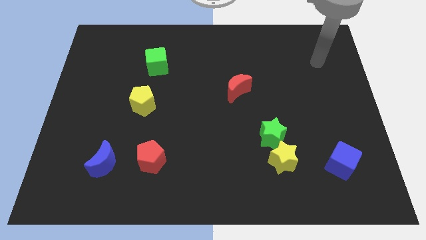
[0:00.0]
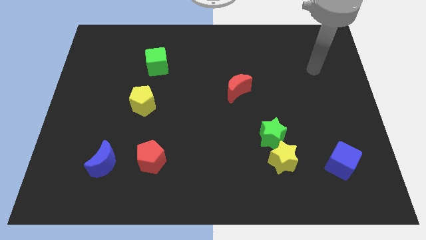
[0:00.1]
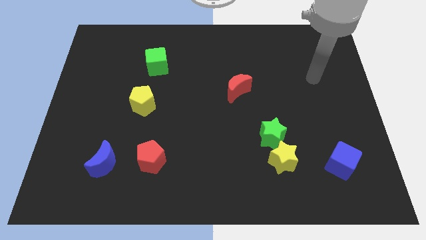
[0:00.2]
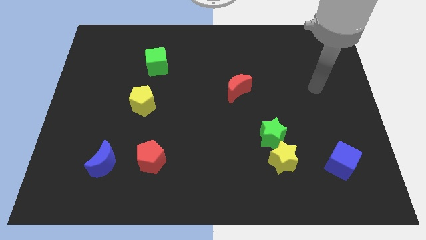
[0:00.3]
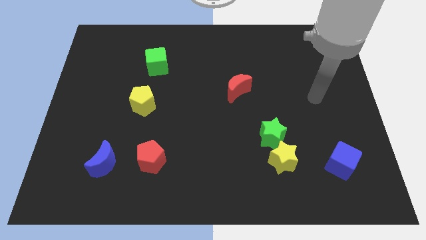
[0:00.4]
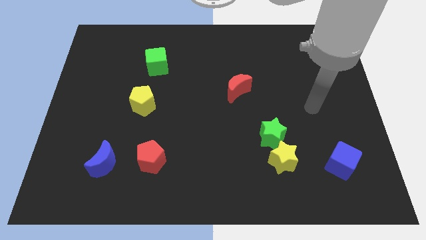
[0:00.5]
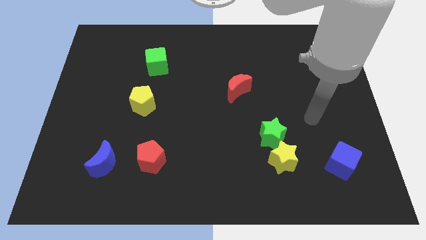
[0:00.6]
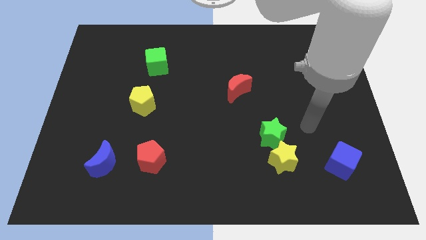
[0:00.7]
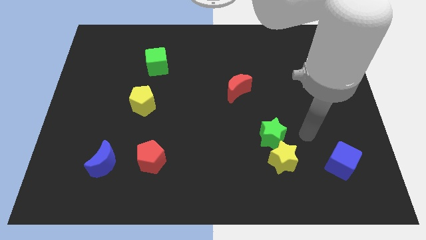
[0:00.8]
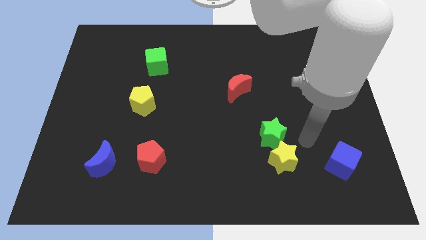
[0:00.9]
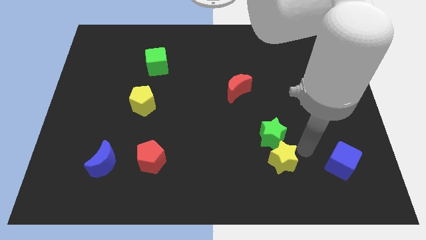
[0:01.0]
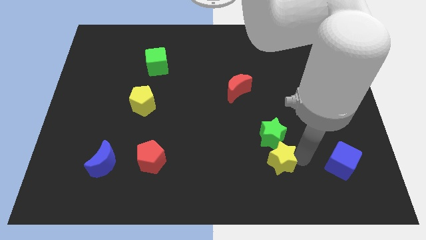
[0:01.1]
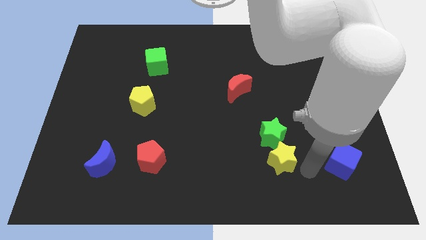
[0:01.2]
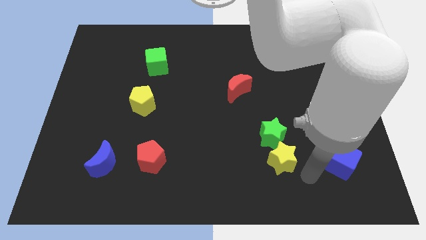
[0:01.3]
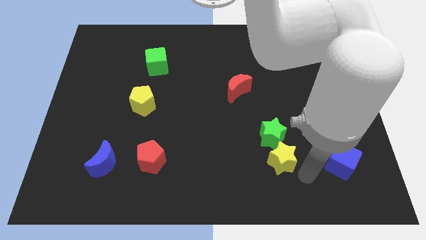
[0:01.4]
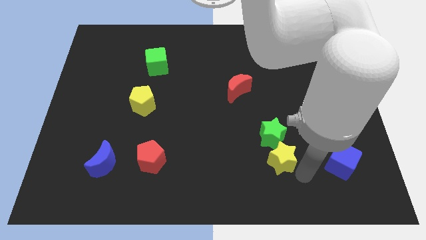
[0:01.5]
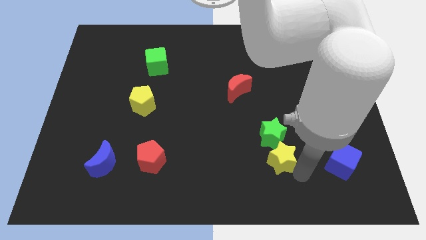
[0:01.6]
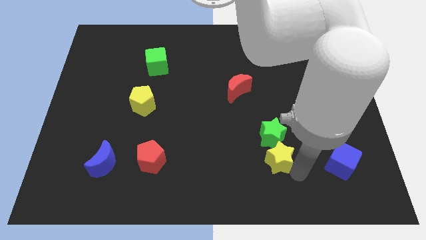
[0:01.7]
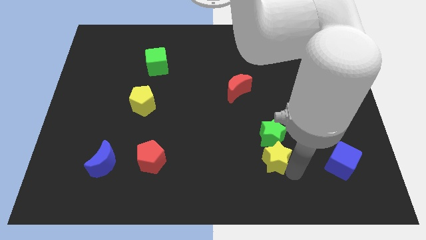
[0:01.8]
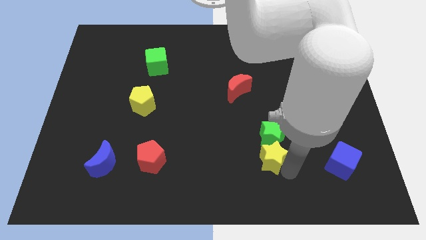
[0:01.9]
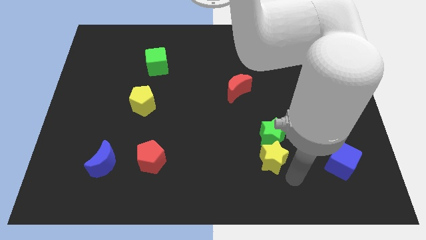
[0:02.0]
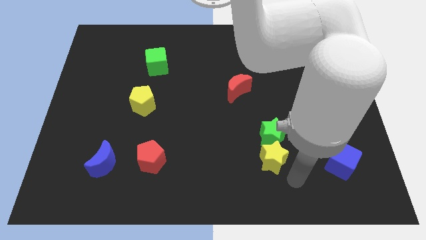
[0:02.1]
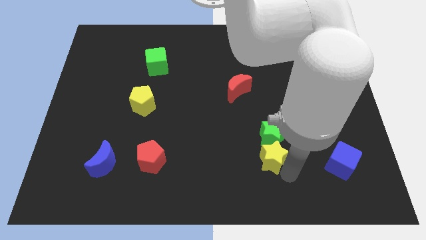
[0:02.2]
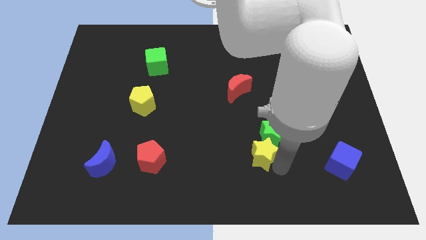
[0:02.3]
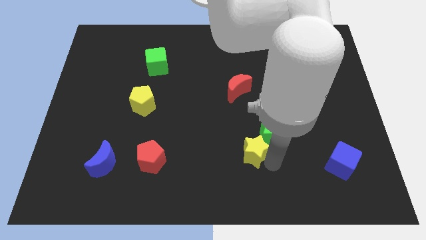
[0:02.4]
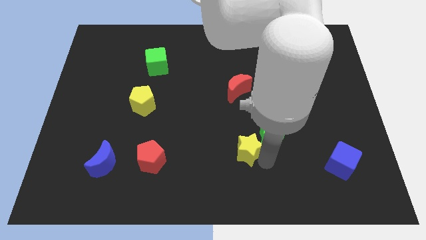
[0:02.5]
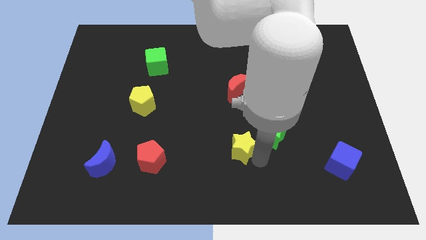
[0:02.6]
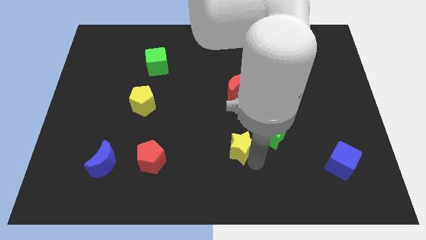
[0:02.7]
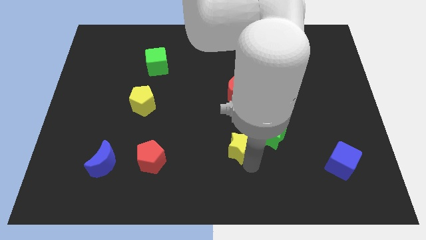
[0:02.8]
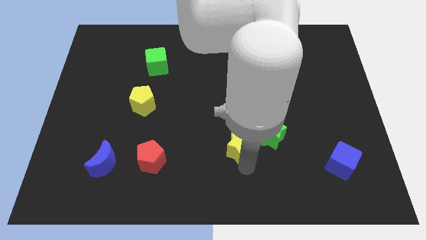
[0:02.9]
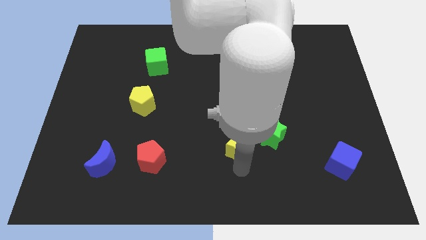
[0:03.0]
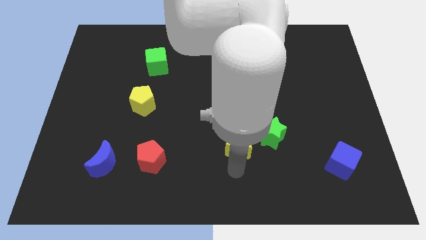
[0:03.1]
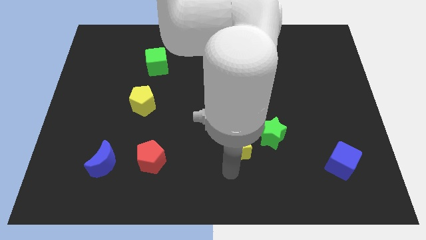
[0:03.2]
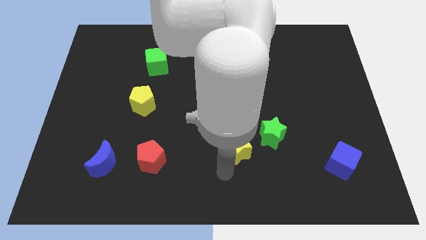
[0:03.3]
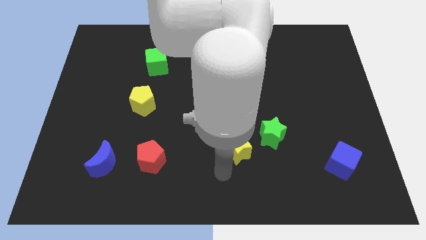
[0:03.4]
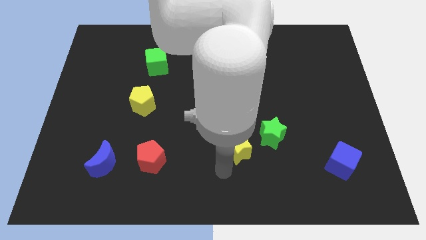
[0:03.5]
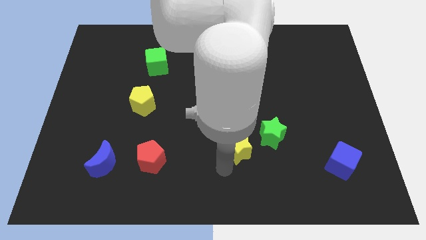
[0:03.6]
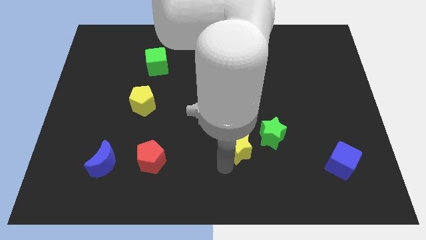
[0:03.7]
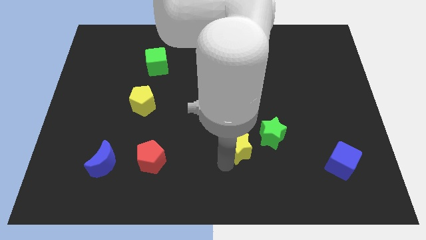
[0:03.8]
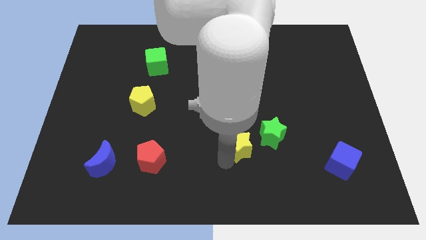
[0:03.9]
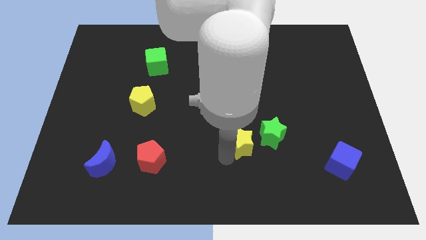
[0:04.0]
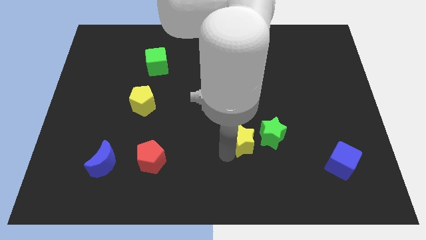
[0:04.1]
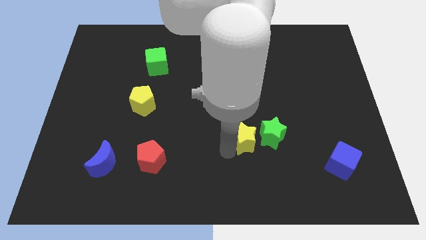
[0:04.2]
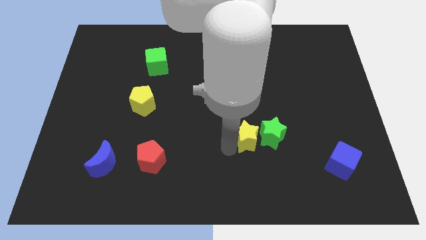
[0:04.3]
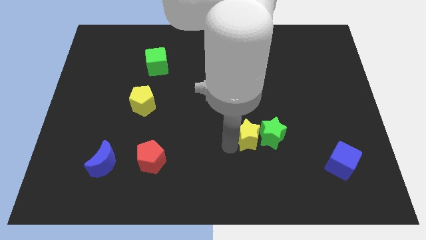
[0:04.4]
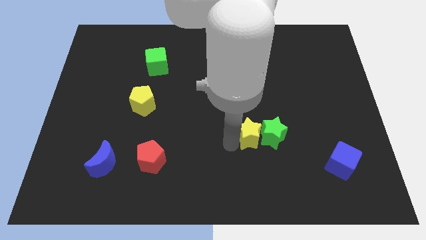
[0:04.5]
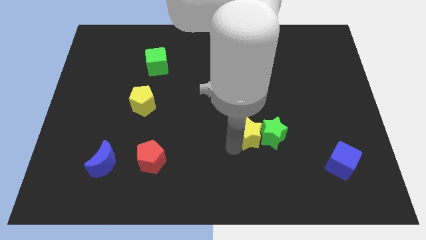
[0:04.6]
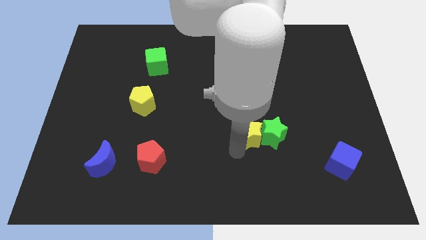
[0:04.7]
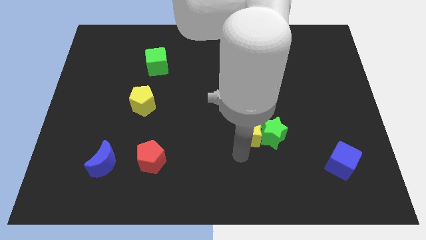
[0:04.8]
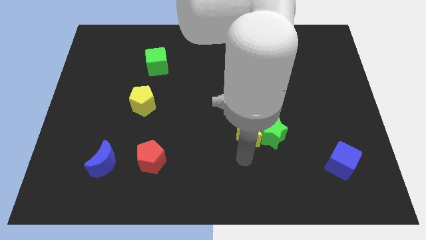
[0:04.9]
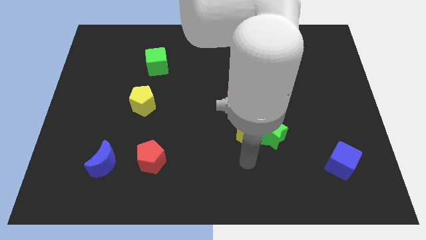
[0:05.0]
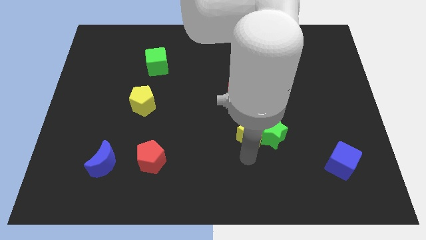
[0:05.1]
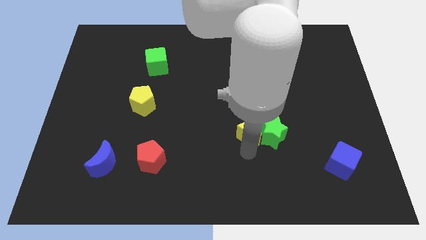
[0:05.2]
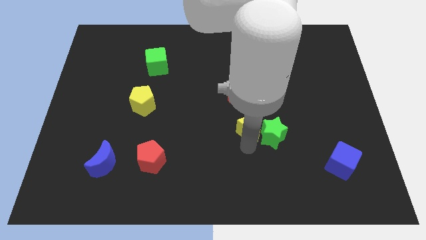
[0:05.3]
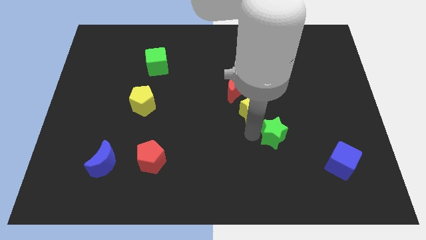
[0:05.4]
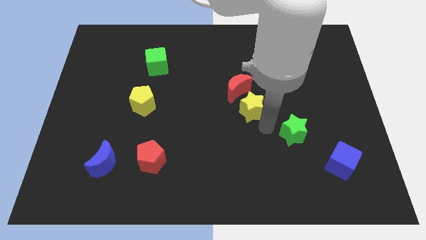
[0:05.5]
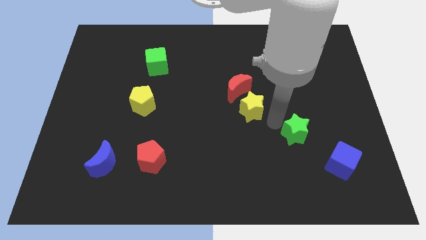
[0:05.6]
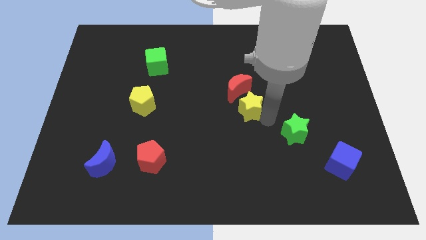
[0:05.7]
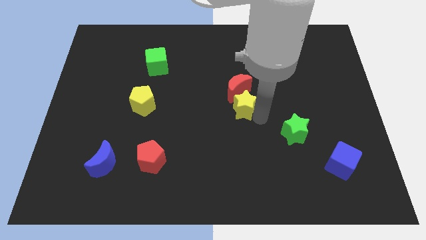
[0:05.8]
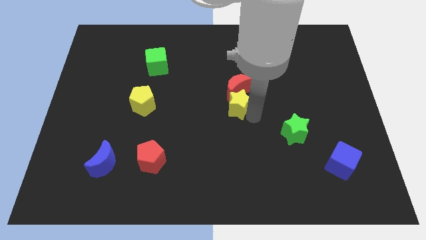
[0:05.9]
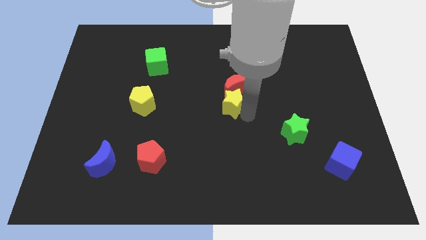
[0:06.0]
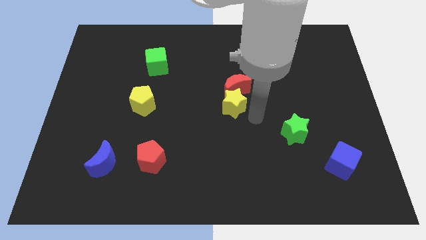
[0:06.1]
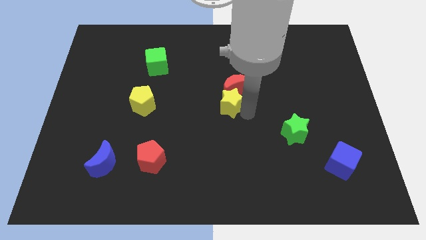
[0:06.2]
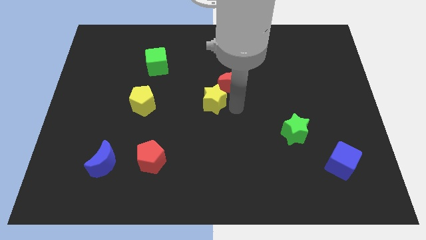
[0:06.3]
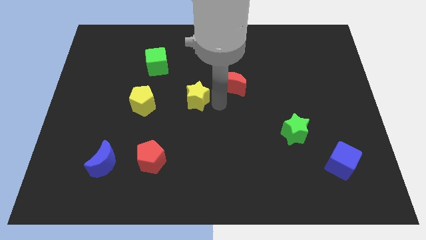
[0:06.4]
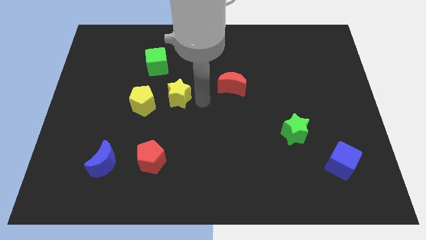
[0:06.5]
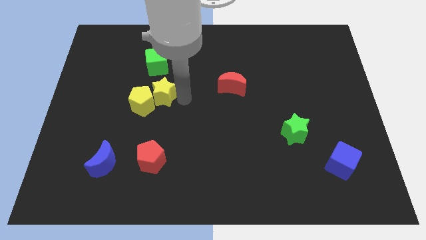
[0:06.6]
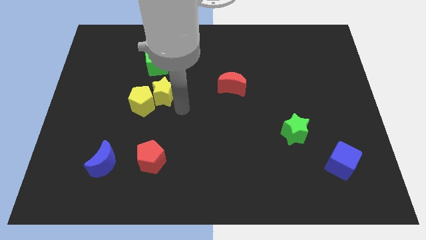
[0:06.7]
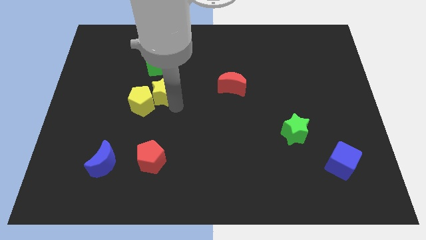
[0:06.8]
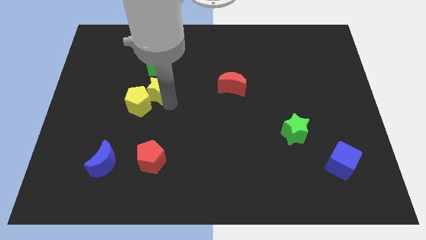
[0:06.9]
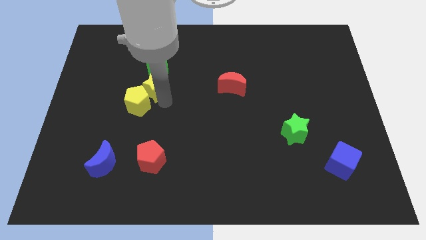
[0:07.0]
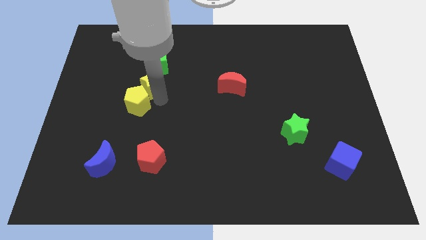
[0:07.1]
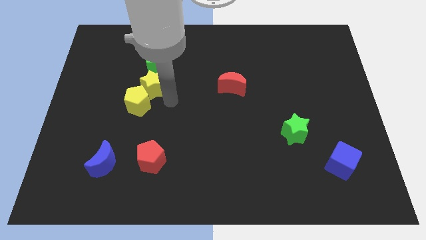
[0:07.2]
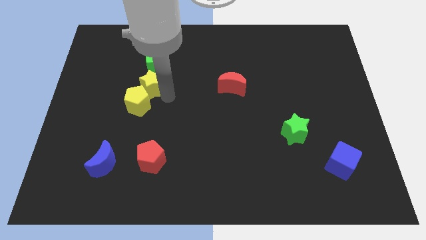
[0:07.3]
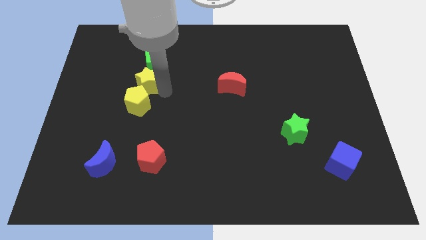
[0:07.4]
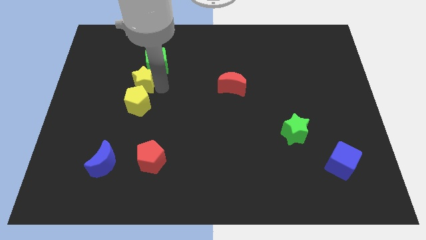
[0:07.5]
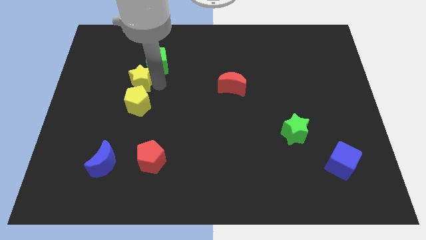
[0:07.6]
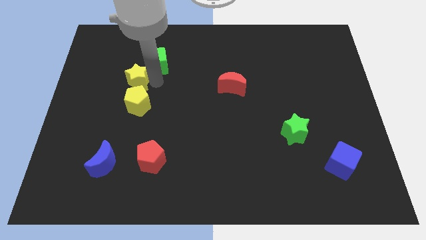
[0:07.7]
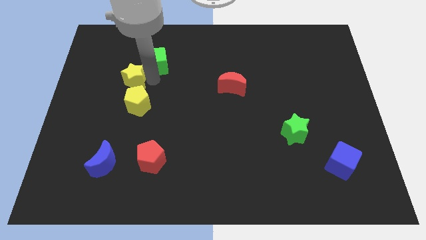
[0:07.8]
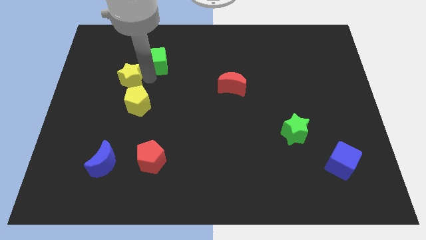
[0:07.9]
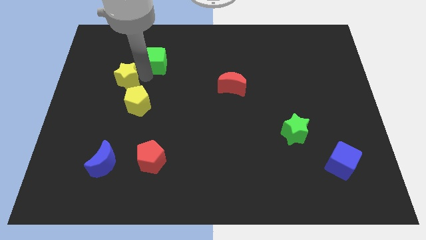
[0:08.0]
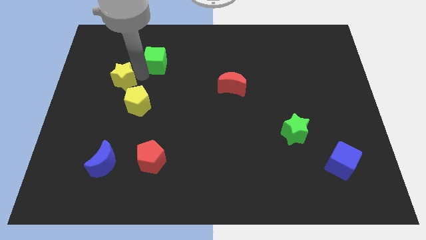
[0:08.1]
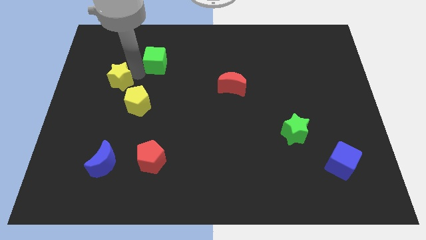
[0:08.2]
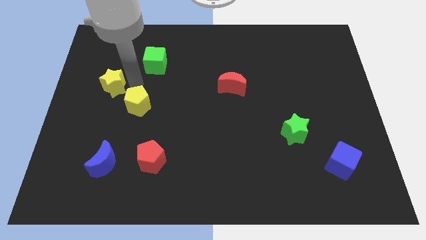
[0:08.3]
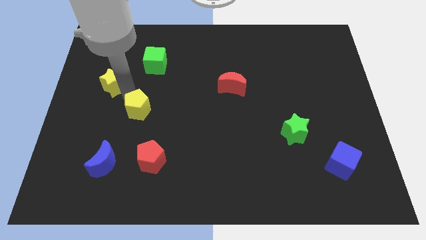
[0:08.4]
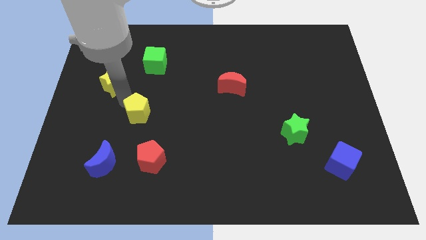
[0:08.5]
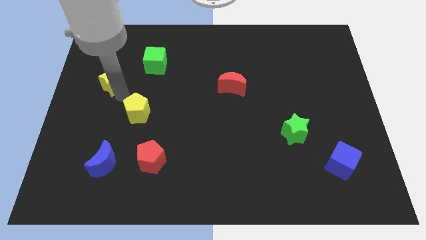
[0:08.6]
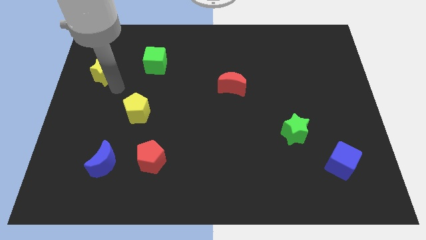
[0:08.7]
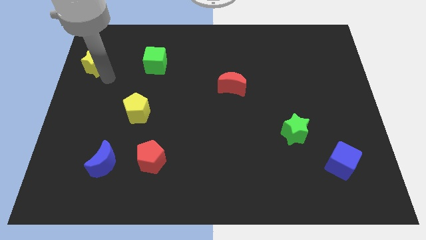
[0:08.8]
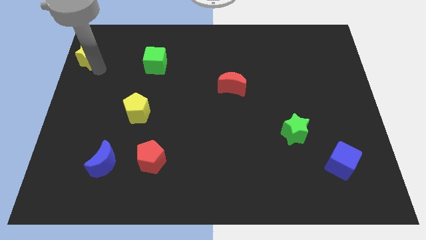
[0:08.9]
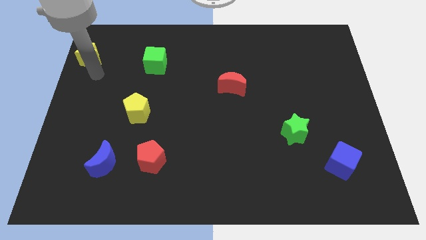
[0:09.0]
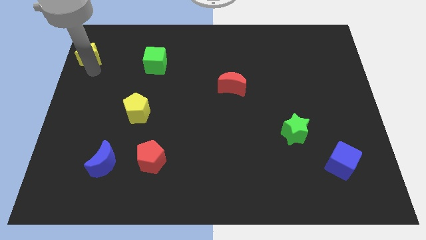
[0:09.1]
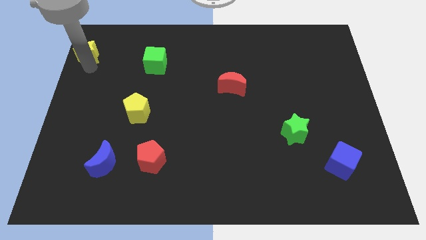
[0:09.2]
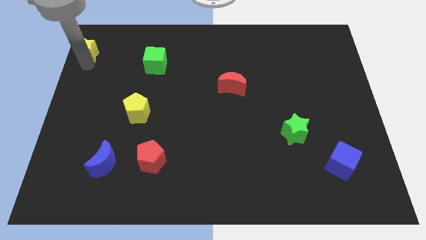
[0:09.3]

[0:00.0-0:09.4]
move the yellow star to the top left corner
